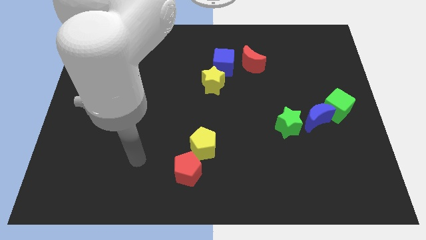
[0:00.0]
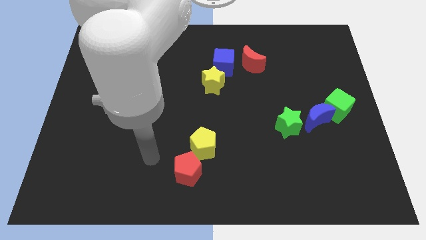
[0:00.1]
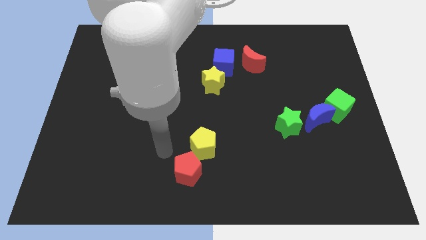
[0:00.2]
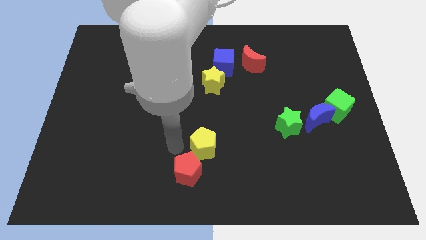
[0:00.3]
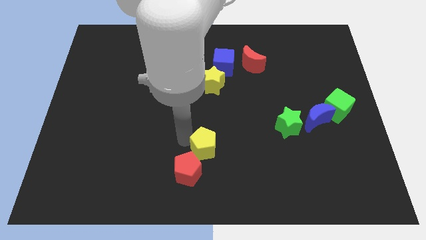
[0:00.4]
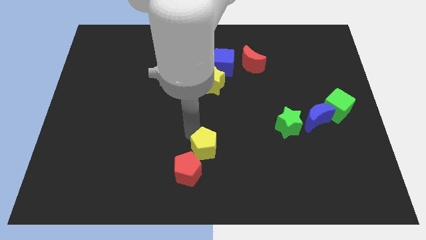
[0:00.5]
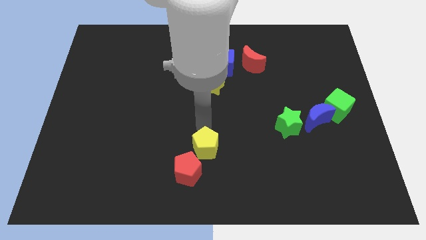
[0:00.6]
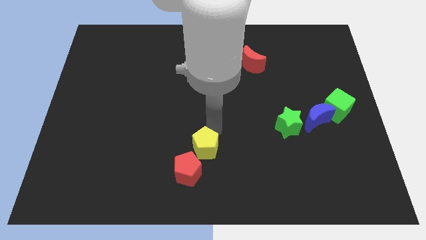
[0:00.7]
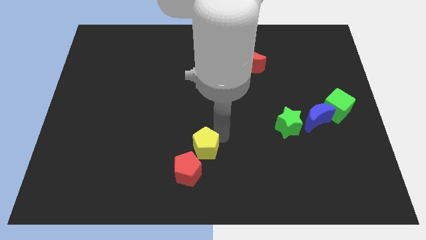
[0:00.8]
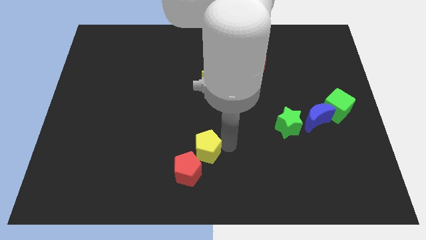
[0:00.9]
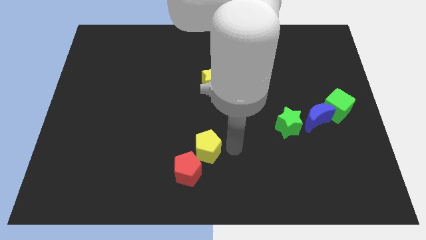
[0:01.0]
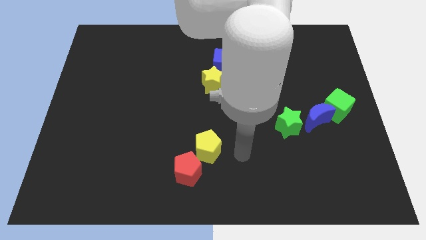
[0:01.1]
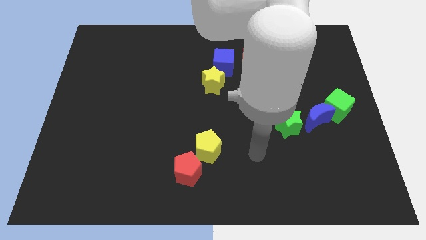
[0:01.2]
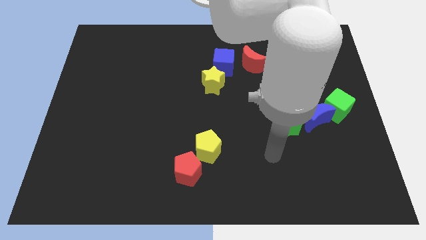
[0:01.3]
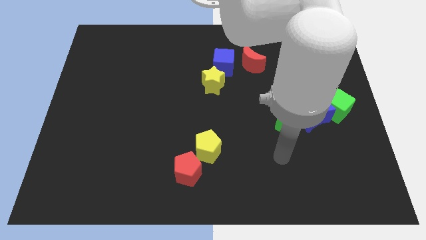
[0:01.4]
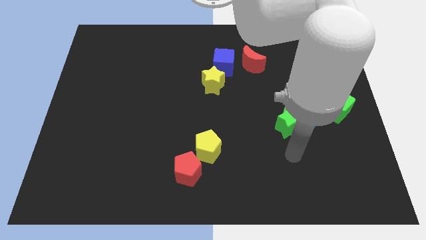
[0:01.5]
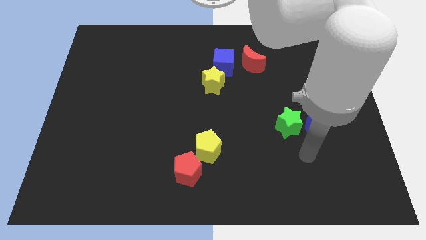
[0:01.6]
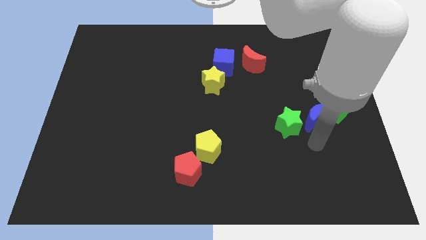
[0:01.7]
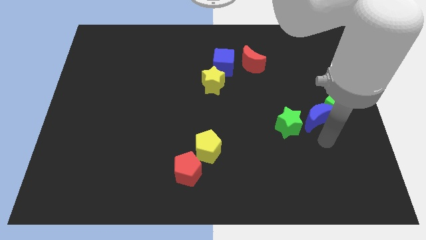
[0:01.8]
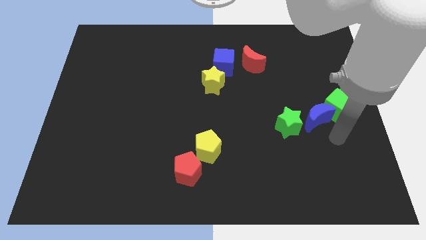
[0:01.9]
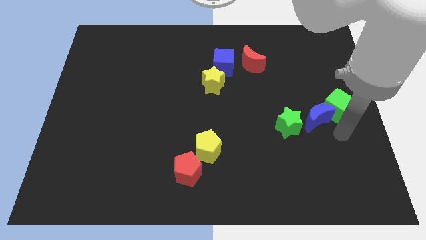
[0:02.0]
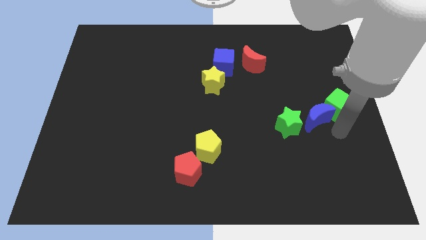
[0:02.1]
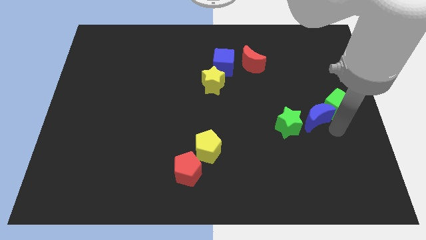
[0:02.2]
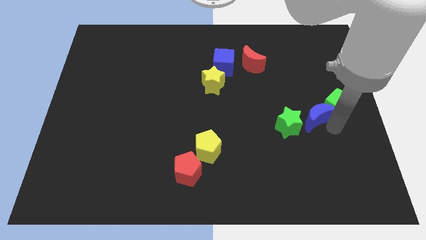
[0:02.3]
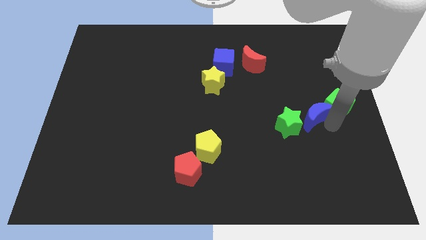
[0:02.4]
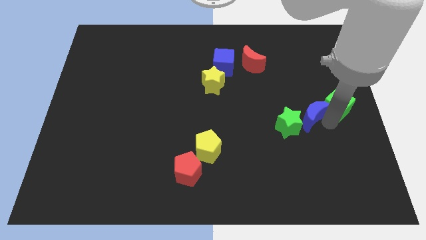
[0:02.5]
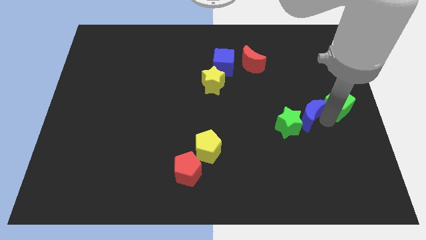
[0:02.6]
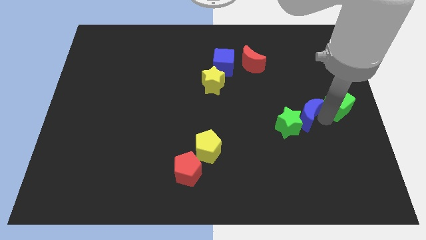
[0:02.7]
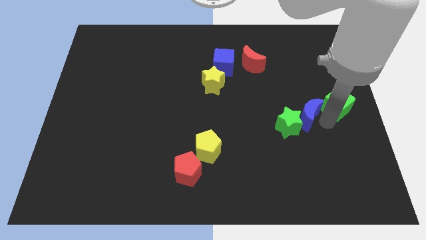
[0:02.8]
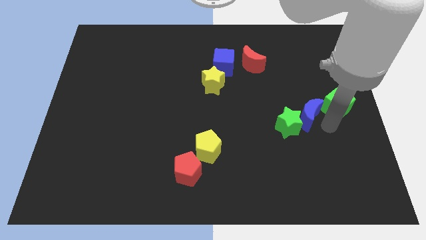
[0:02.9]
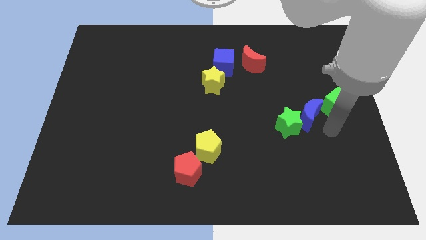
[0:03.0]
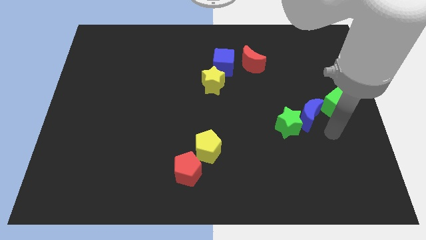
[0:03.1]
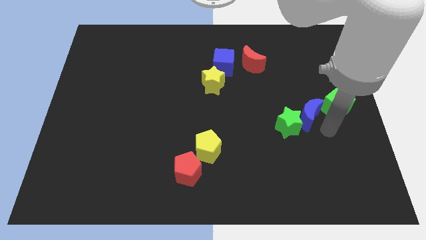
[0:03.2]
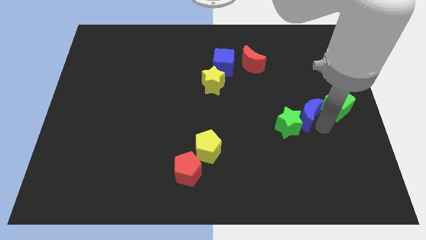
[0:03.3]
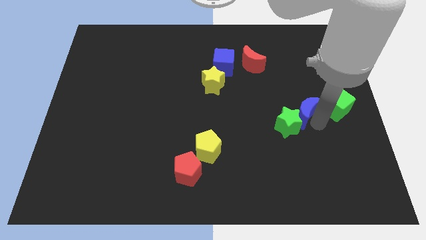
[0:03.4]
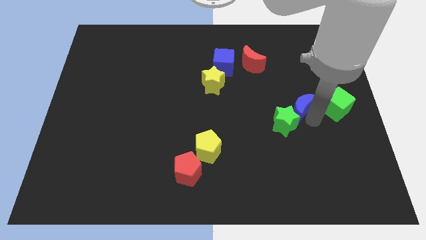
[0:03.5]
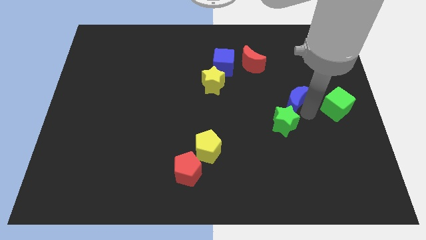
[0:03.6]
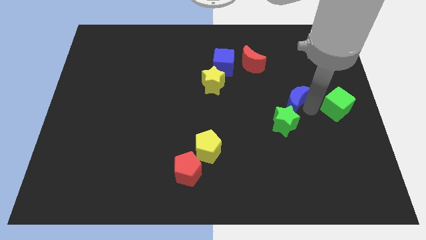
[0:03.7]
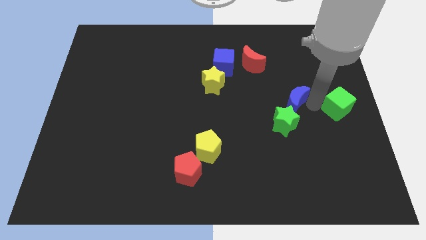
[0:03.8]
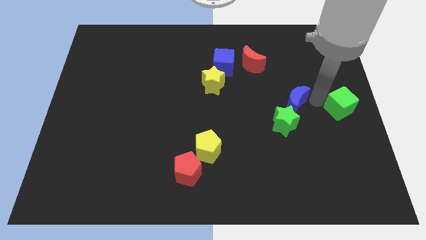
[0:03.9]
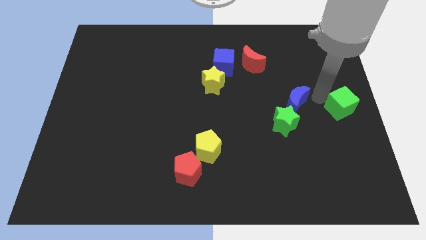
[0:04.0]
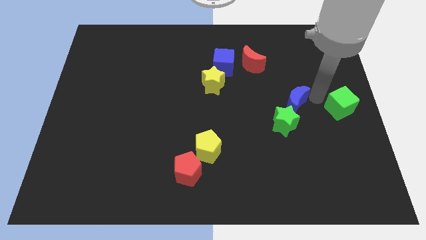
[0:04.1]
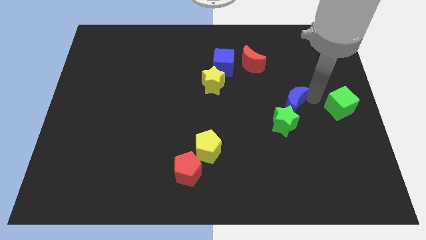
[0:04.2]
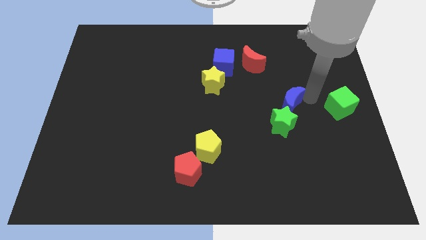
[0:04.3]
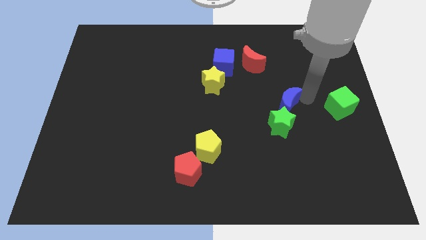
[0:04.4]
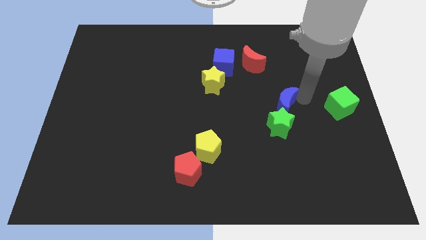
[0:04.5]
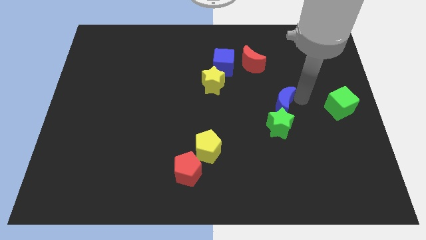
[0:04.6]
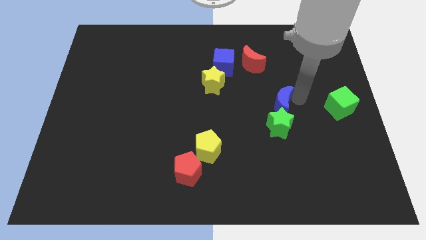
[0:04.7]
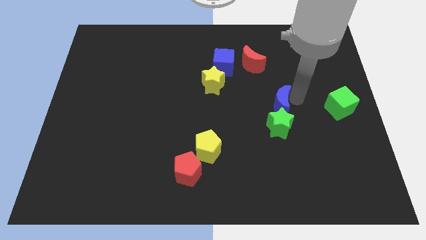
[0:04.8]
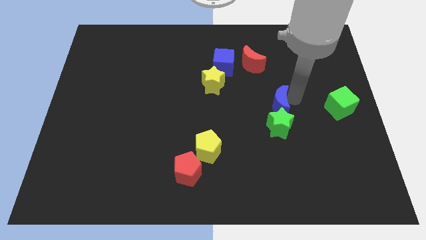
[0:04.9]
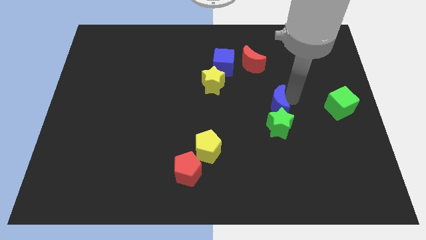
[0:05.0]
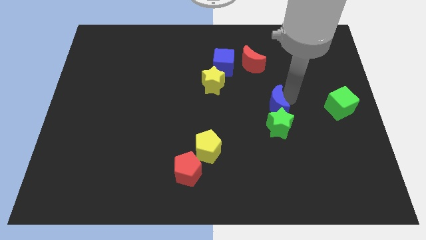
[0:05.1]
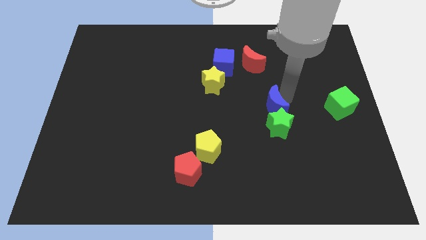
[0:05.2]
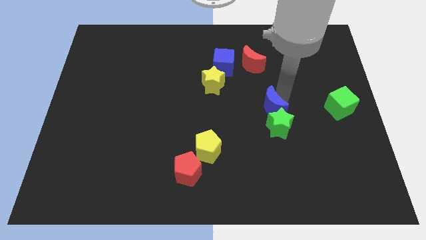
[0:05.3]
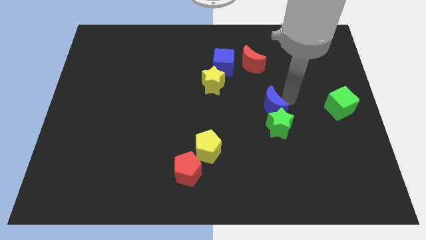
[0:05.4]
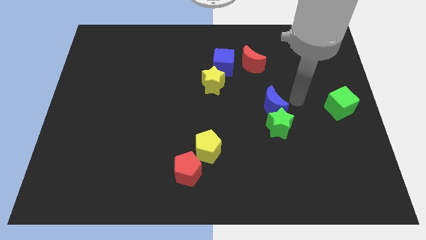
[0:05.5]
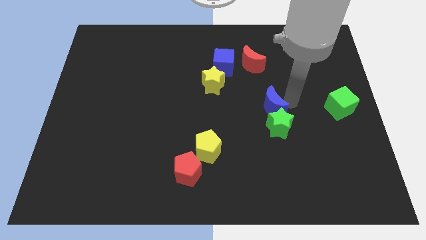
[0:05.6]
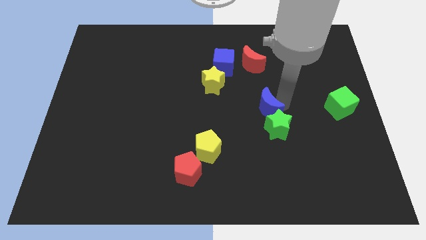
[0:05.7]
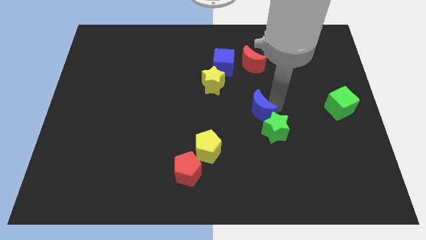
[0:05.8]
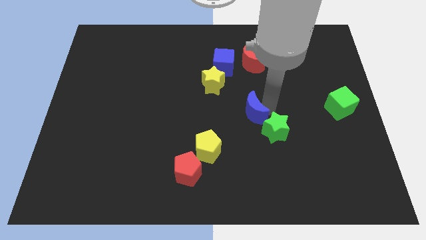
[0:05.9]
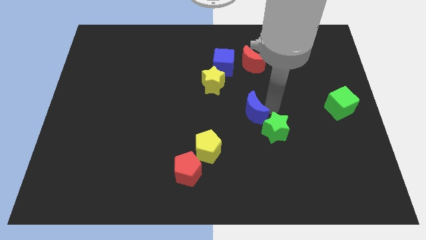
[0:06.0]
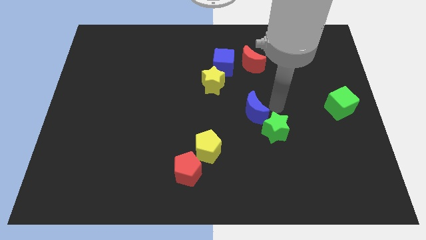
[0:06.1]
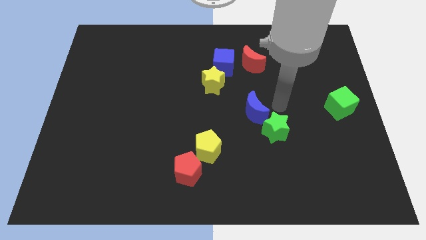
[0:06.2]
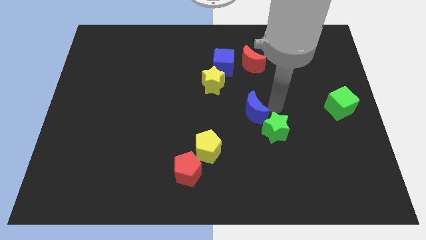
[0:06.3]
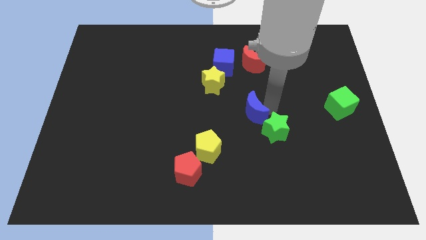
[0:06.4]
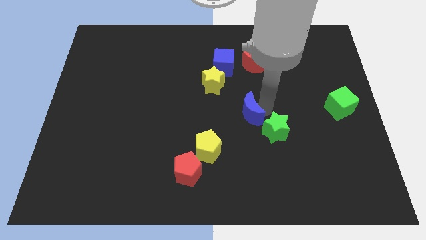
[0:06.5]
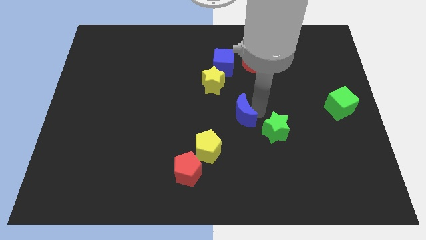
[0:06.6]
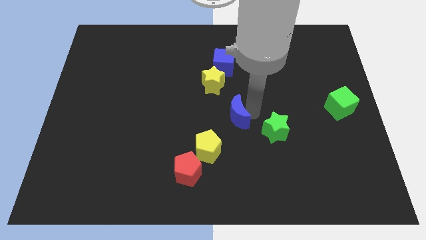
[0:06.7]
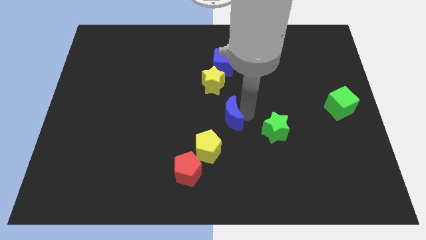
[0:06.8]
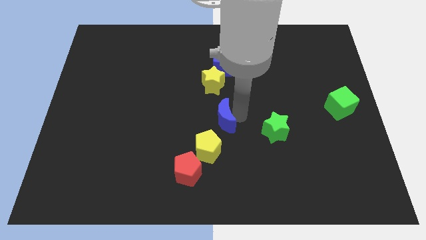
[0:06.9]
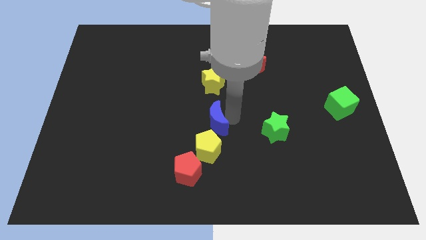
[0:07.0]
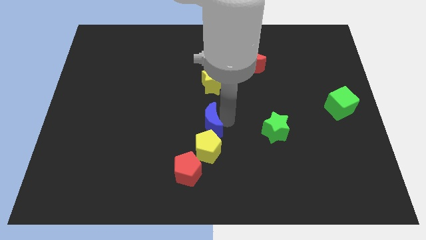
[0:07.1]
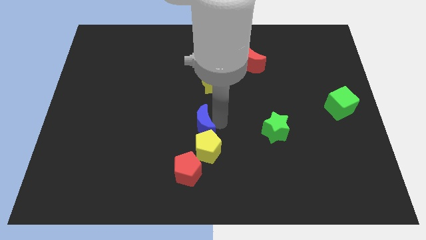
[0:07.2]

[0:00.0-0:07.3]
slide the blue moon diagonally up and to the left of the yellow pentagon

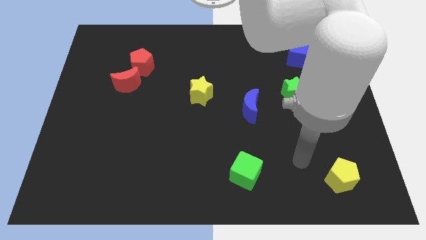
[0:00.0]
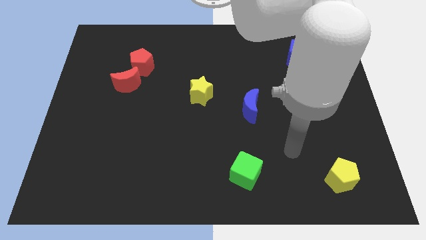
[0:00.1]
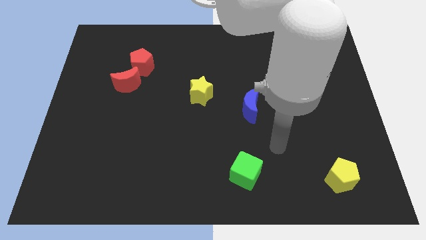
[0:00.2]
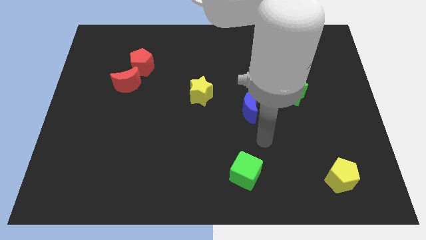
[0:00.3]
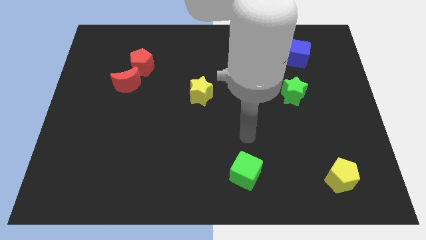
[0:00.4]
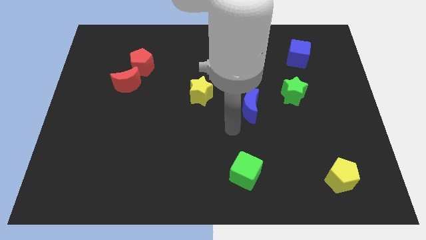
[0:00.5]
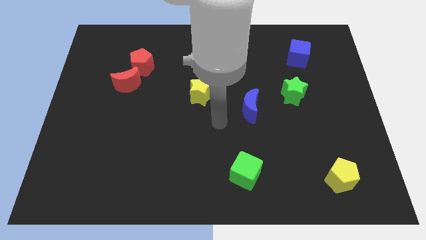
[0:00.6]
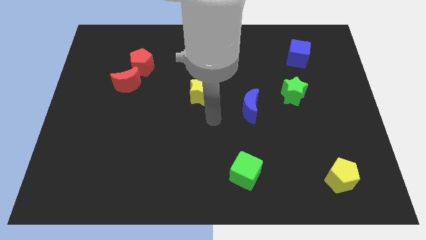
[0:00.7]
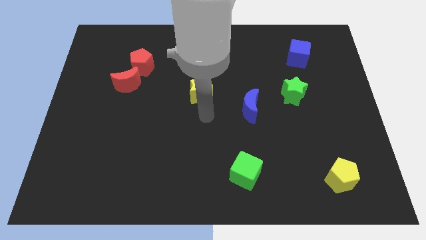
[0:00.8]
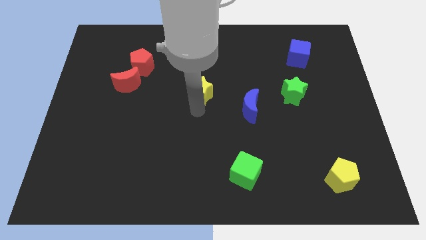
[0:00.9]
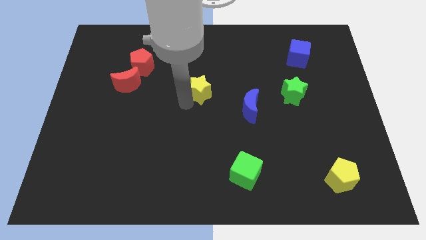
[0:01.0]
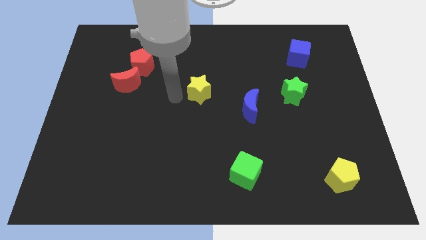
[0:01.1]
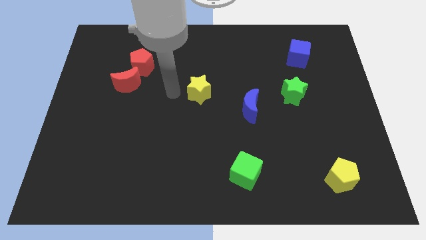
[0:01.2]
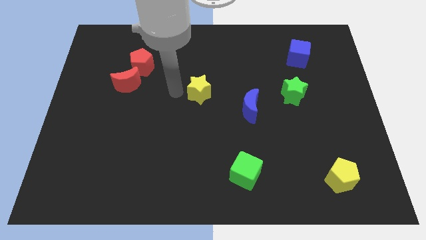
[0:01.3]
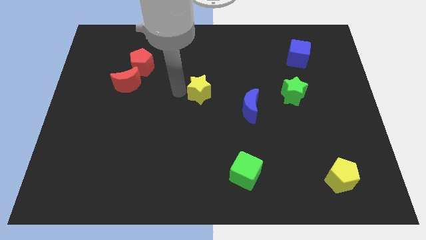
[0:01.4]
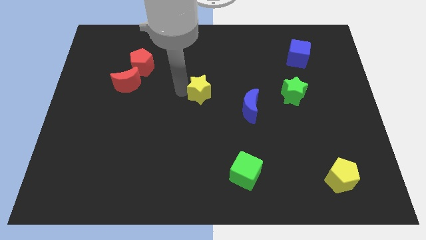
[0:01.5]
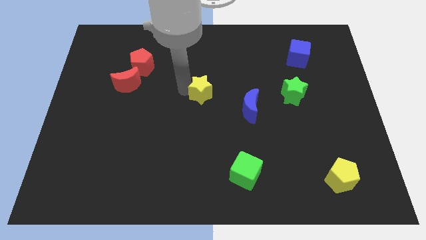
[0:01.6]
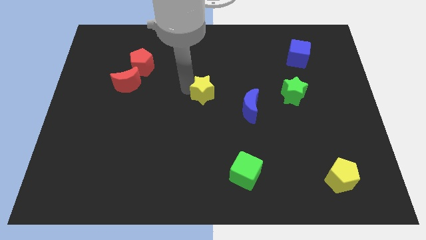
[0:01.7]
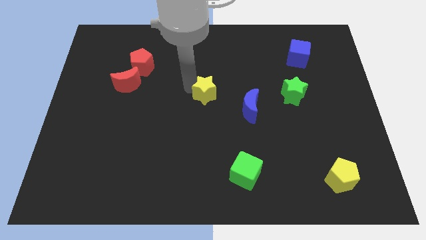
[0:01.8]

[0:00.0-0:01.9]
put the yellow star diagonally up and to the left of the blue moon
